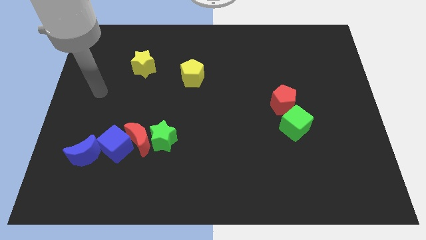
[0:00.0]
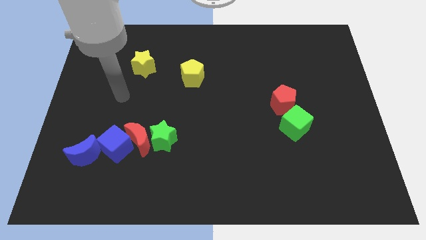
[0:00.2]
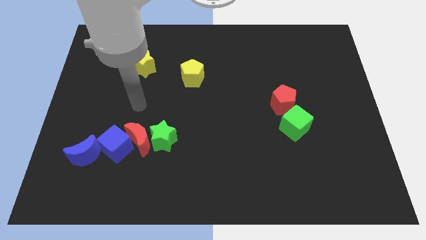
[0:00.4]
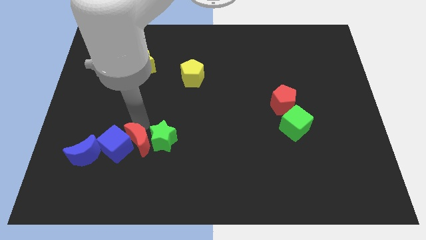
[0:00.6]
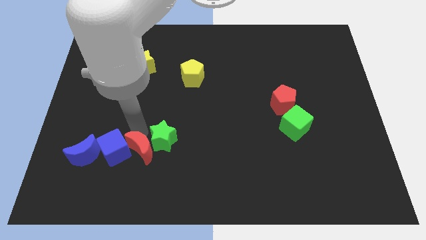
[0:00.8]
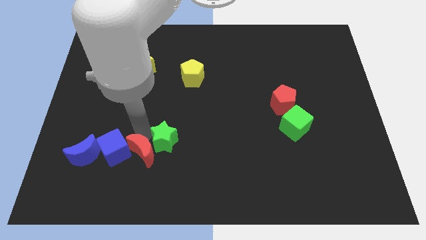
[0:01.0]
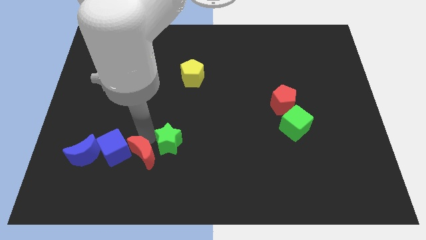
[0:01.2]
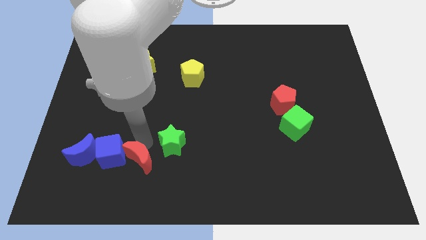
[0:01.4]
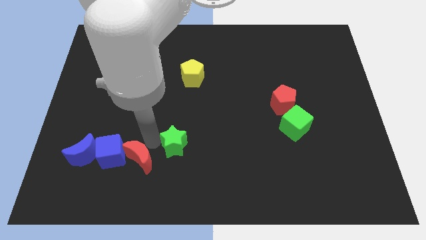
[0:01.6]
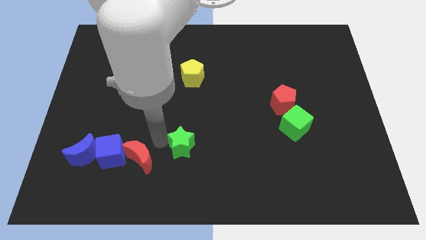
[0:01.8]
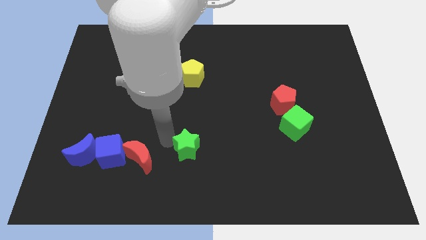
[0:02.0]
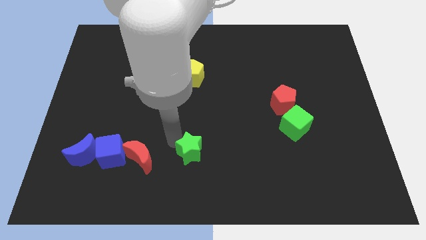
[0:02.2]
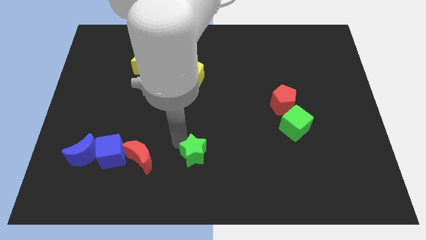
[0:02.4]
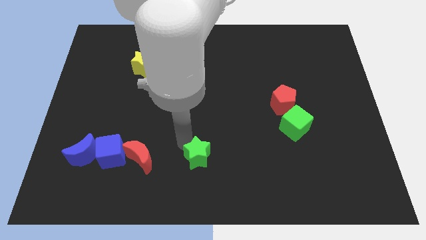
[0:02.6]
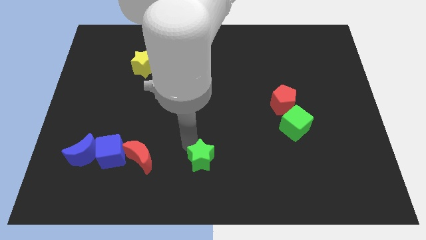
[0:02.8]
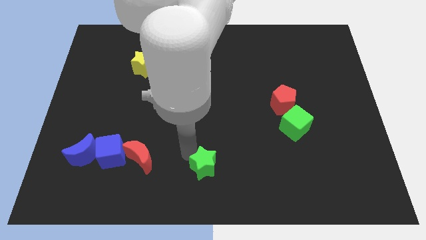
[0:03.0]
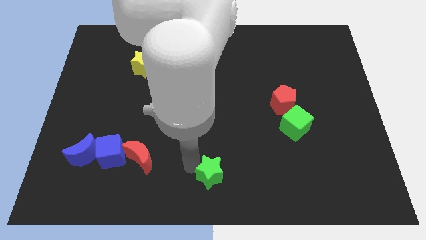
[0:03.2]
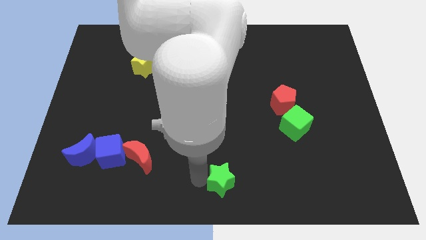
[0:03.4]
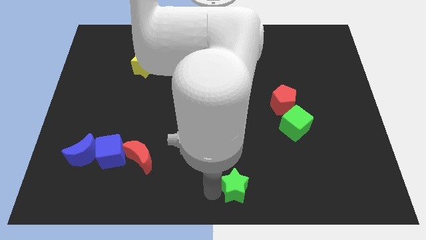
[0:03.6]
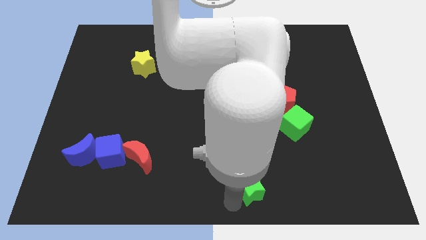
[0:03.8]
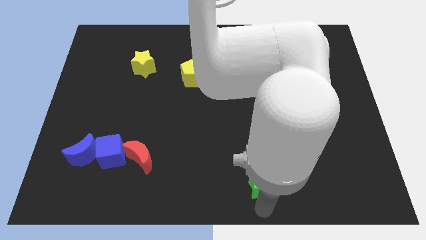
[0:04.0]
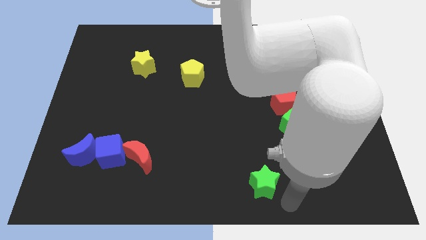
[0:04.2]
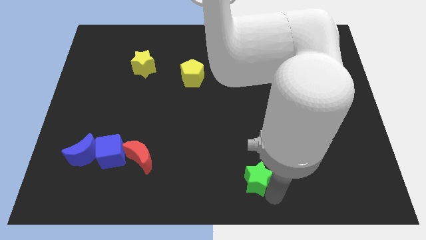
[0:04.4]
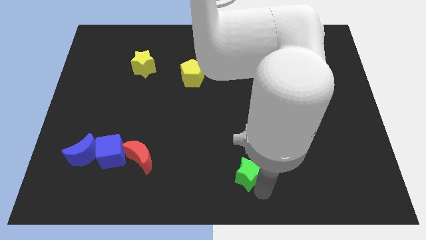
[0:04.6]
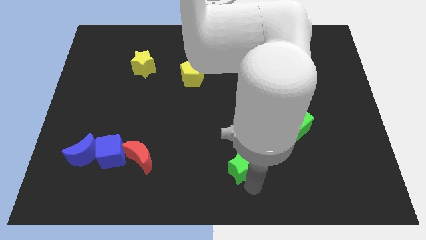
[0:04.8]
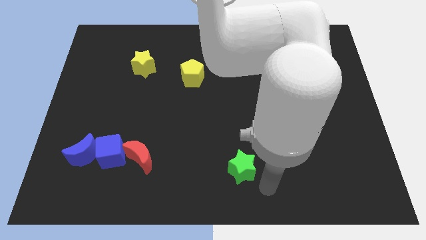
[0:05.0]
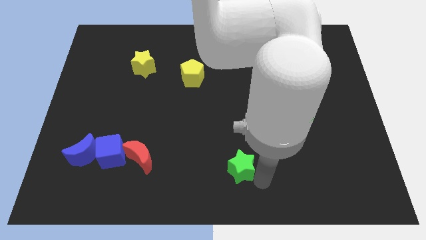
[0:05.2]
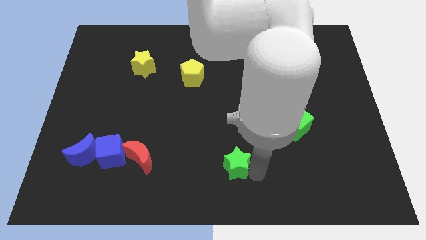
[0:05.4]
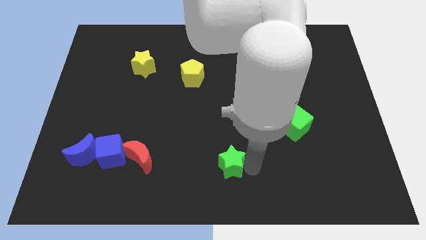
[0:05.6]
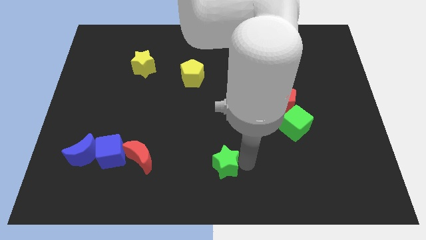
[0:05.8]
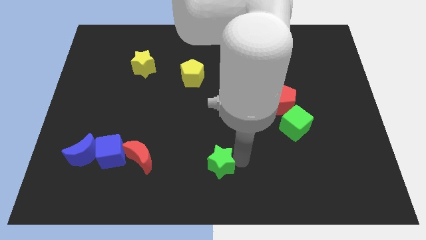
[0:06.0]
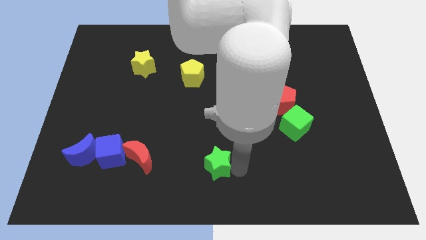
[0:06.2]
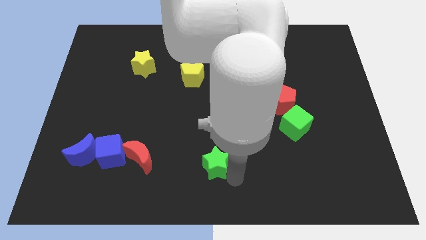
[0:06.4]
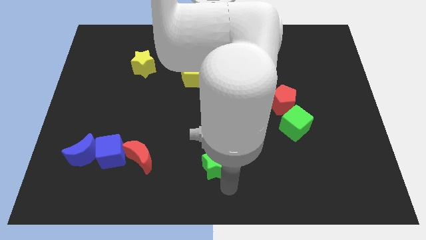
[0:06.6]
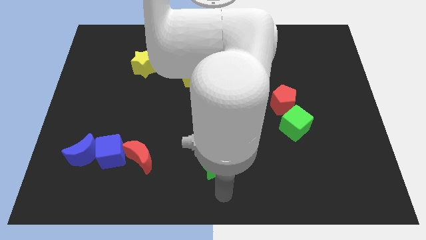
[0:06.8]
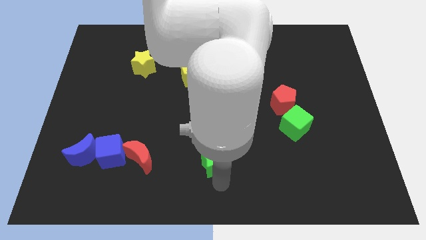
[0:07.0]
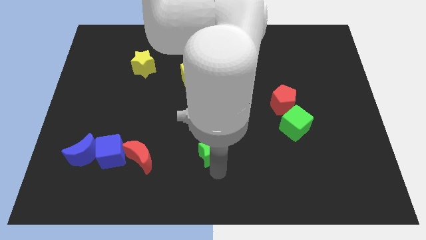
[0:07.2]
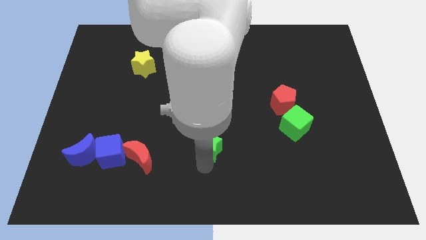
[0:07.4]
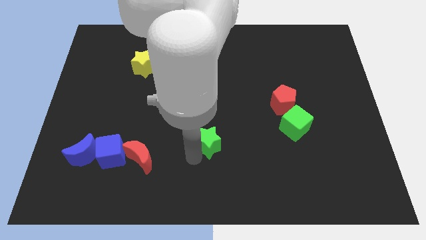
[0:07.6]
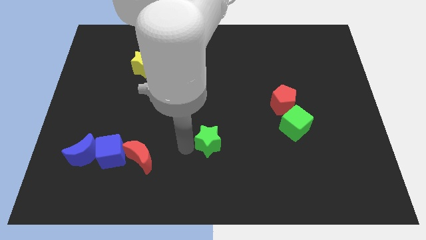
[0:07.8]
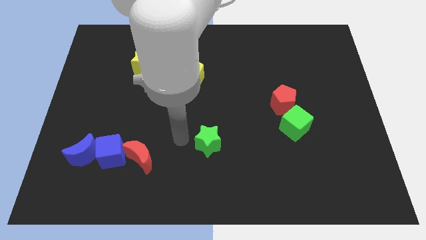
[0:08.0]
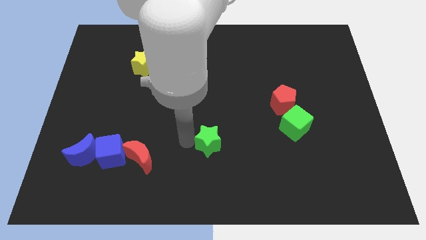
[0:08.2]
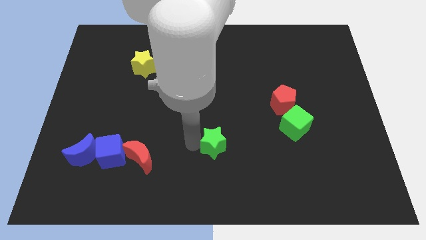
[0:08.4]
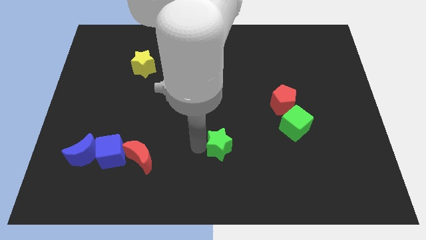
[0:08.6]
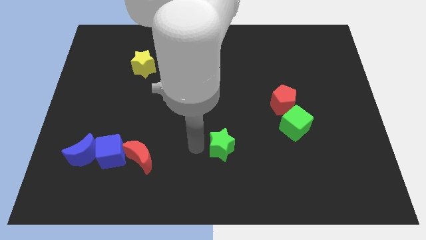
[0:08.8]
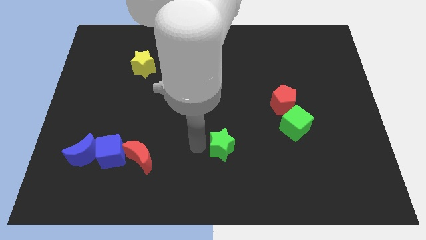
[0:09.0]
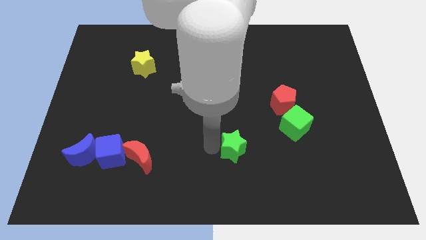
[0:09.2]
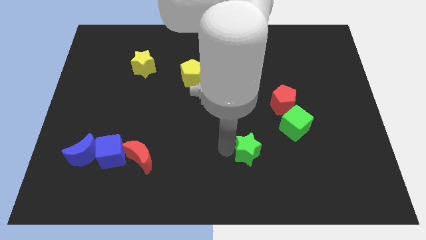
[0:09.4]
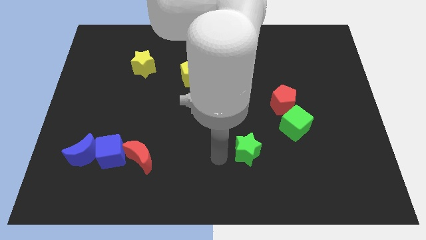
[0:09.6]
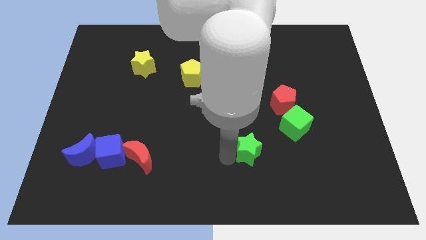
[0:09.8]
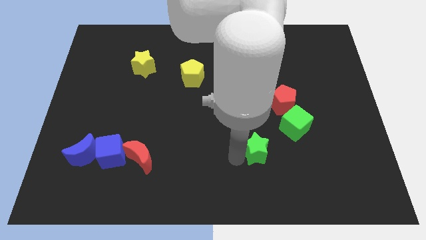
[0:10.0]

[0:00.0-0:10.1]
slide the green star right

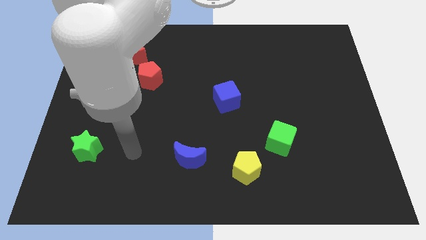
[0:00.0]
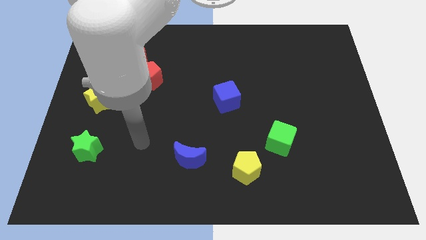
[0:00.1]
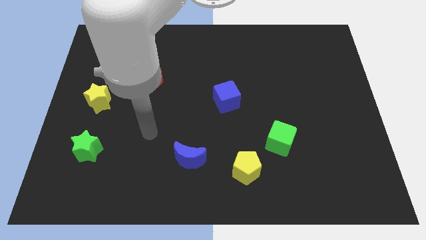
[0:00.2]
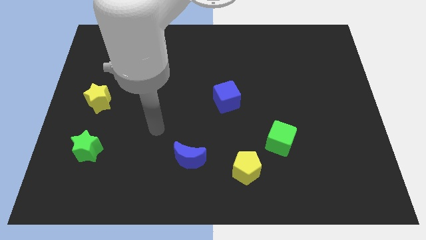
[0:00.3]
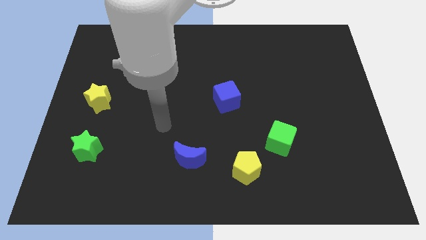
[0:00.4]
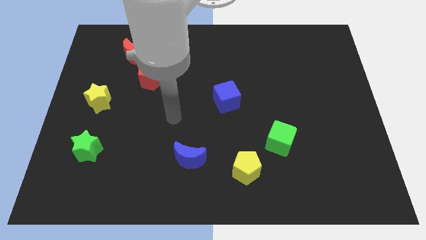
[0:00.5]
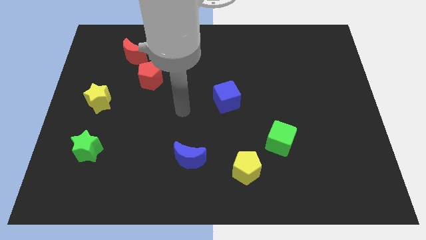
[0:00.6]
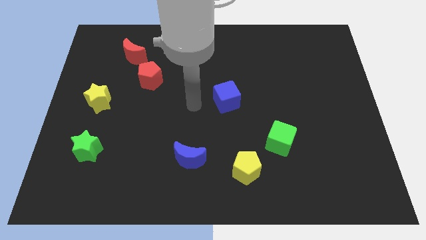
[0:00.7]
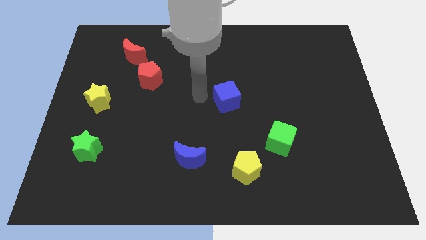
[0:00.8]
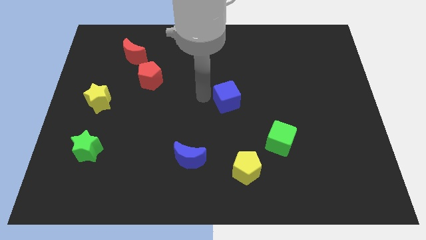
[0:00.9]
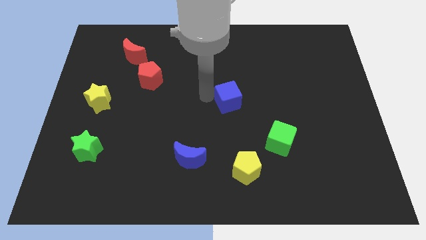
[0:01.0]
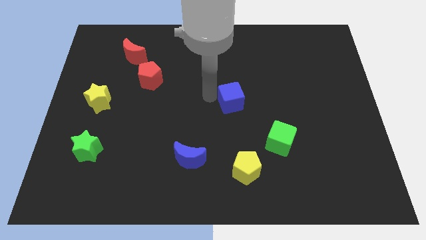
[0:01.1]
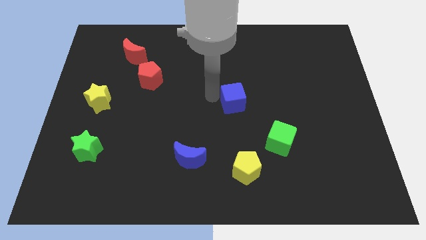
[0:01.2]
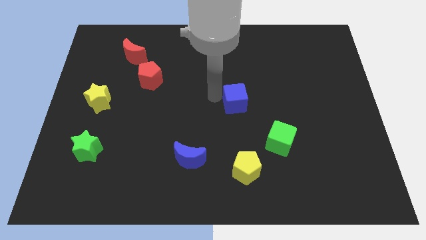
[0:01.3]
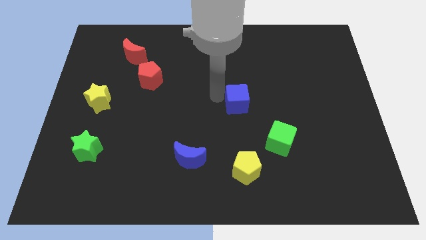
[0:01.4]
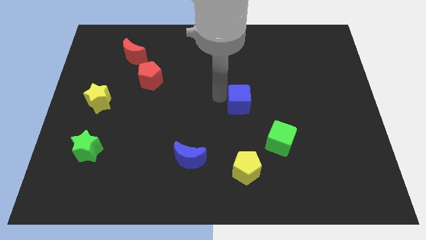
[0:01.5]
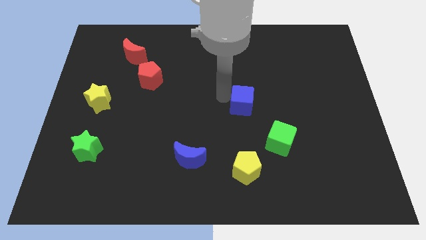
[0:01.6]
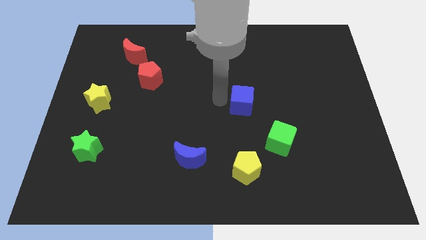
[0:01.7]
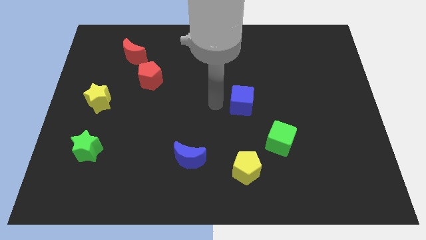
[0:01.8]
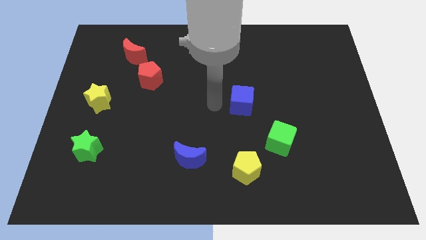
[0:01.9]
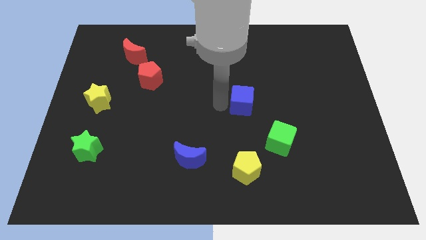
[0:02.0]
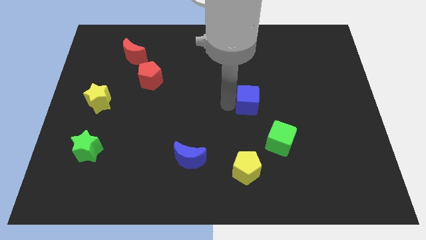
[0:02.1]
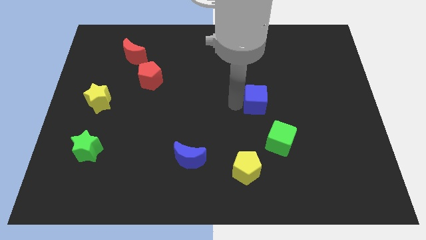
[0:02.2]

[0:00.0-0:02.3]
push the blue cube to the right a little

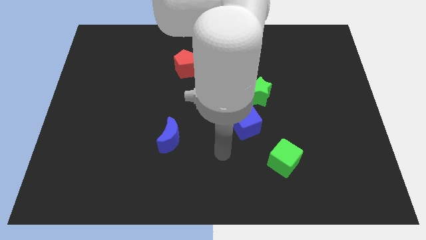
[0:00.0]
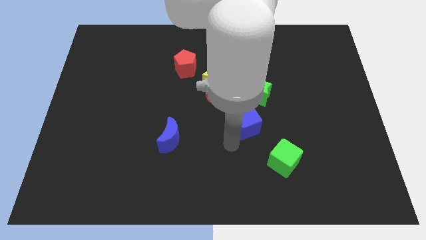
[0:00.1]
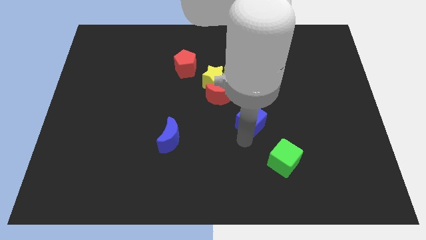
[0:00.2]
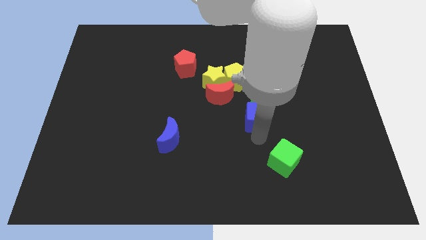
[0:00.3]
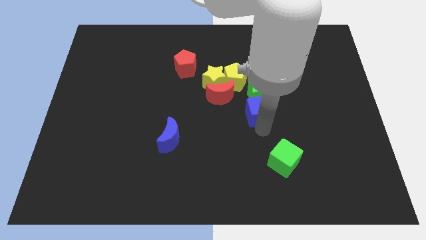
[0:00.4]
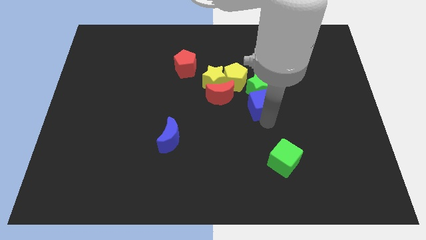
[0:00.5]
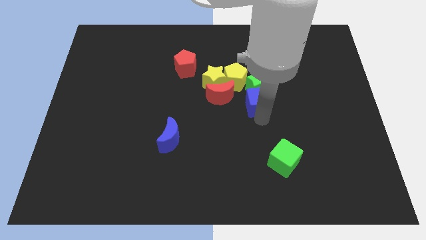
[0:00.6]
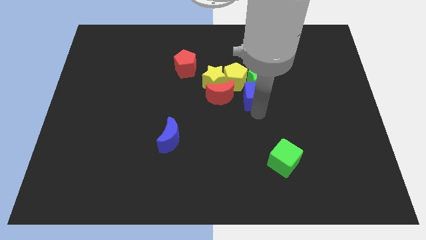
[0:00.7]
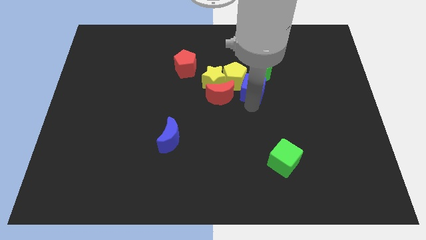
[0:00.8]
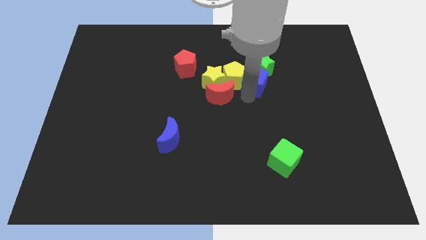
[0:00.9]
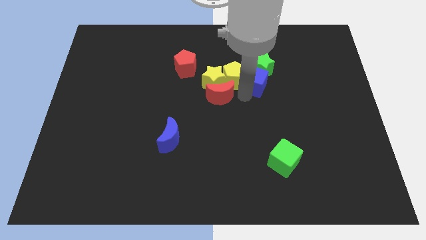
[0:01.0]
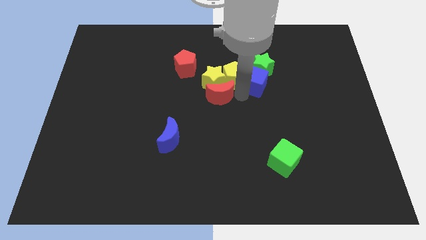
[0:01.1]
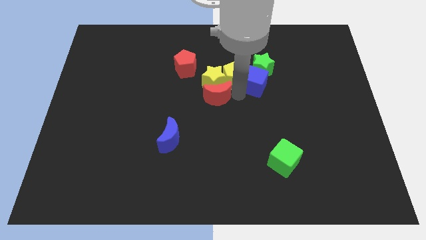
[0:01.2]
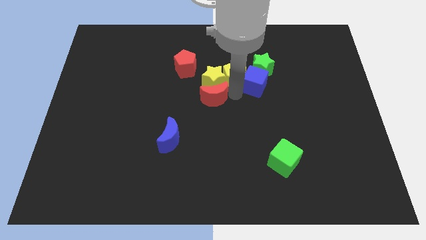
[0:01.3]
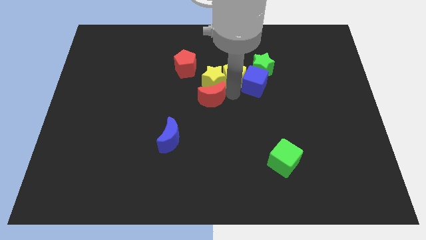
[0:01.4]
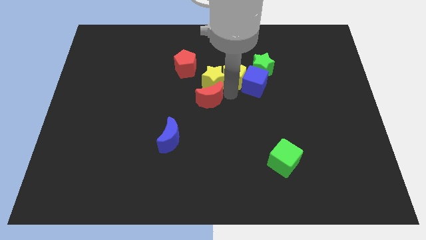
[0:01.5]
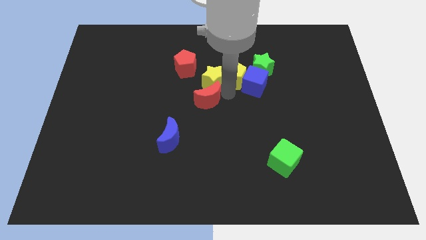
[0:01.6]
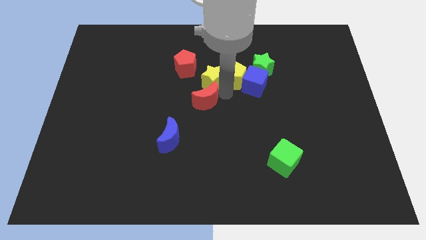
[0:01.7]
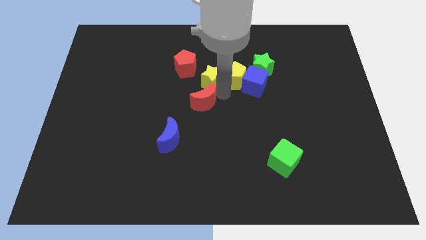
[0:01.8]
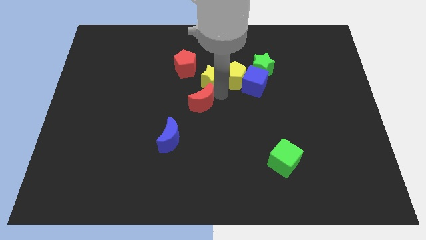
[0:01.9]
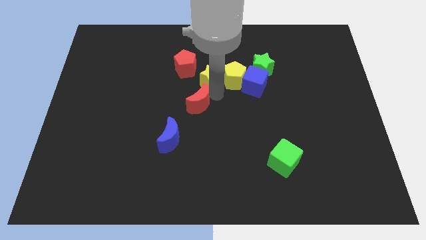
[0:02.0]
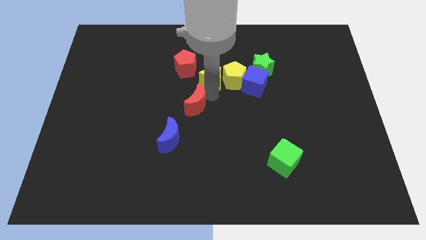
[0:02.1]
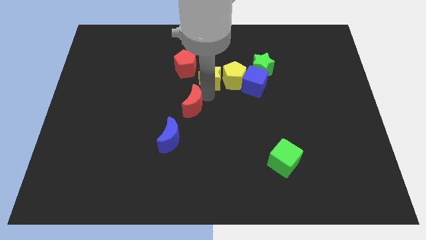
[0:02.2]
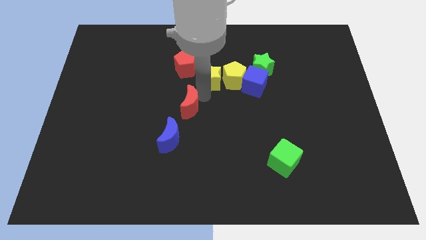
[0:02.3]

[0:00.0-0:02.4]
push the red moon left a little bit
